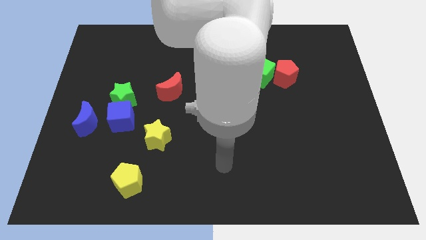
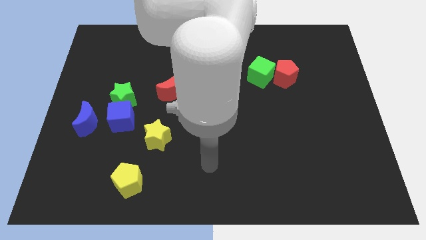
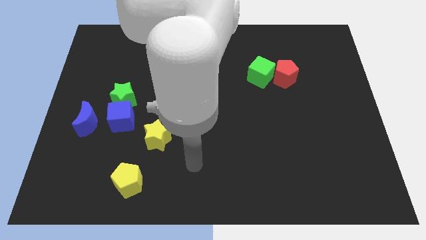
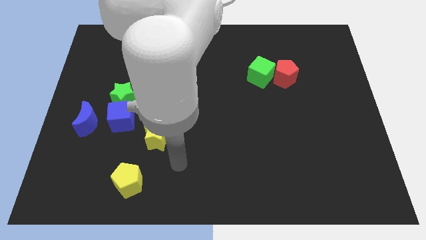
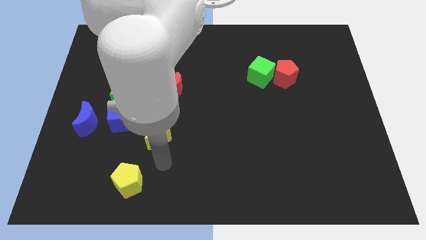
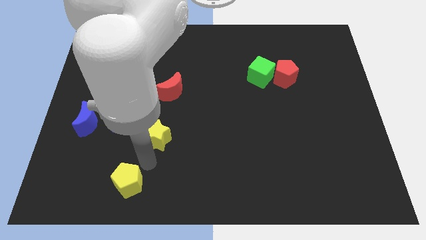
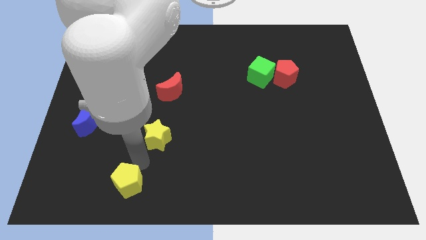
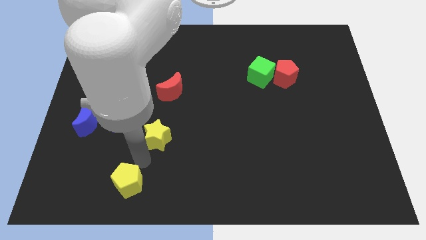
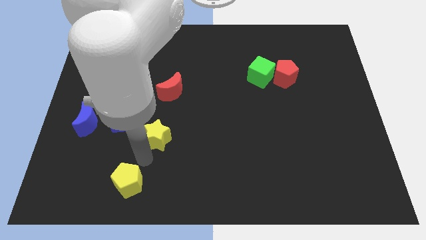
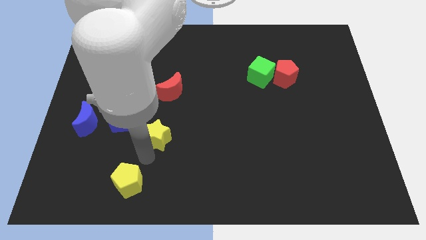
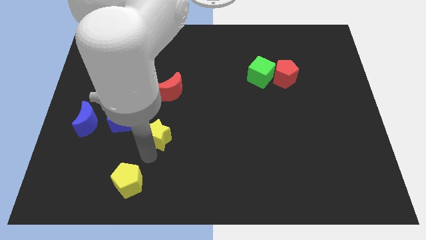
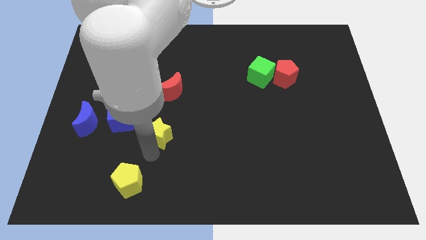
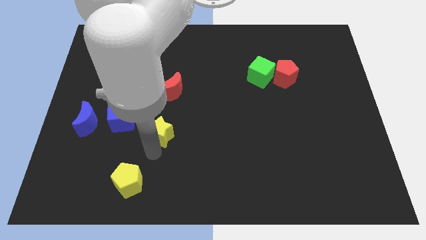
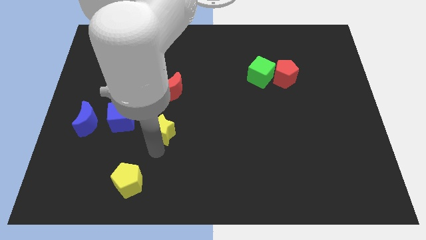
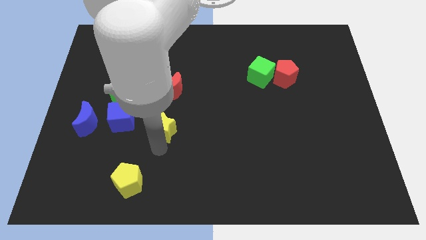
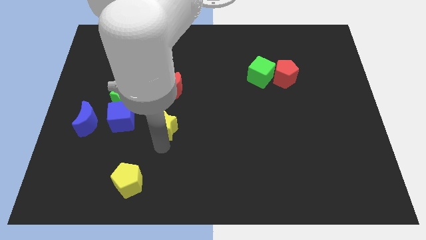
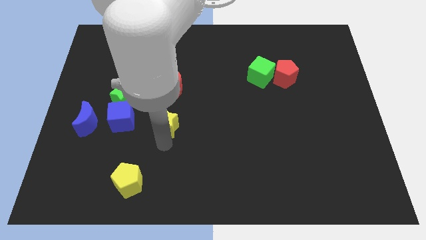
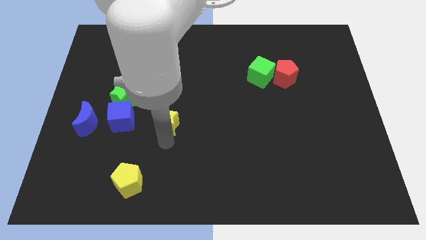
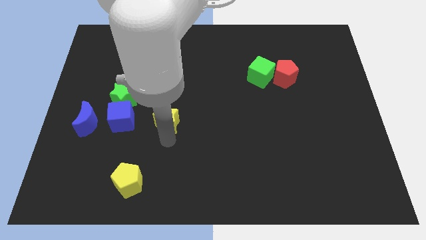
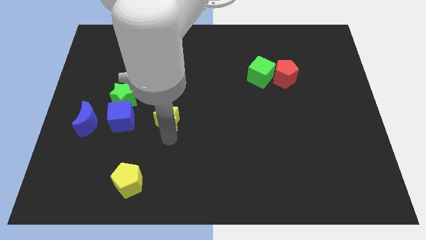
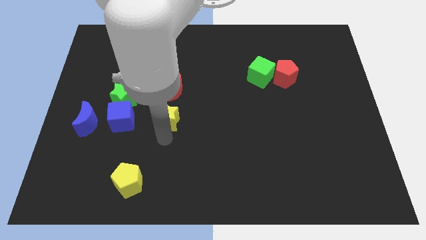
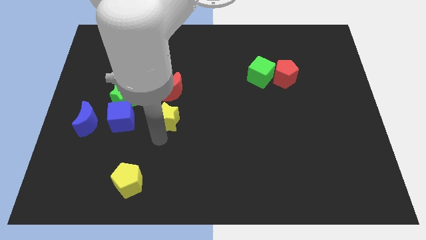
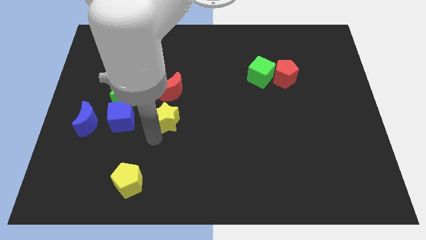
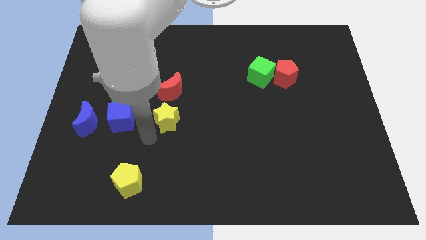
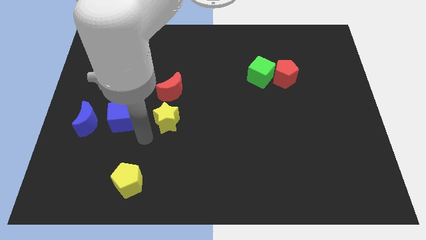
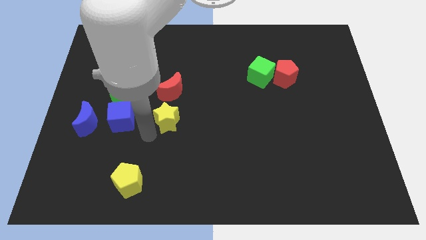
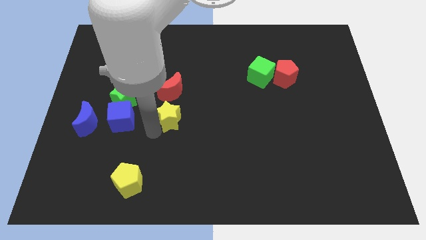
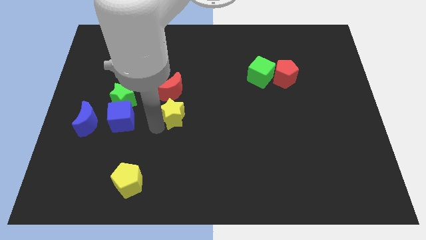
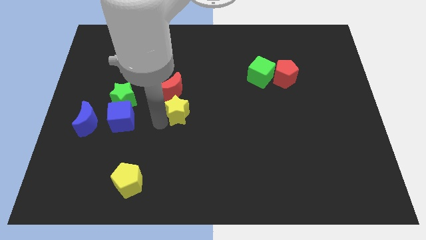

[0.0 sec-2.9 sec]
slide the yellow star a little bit upwards and right

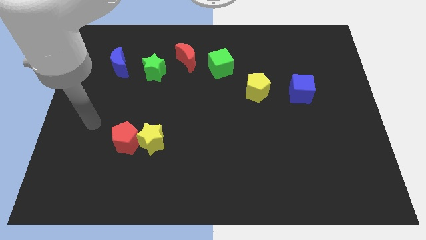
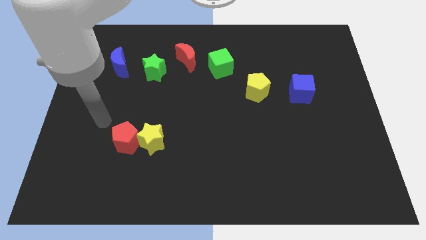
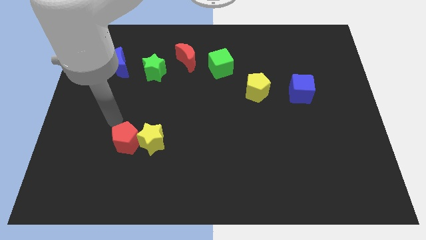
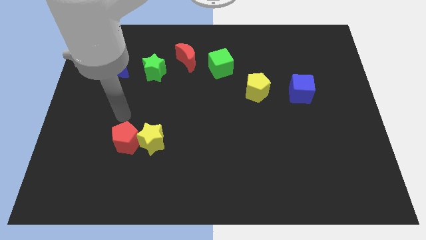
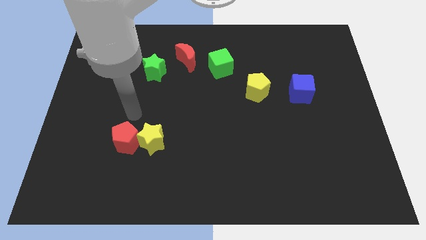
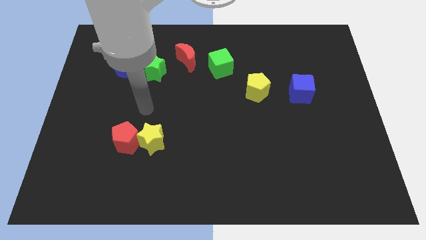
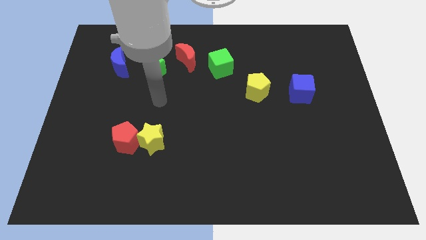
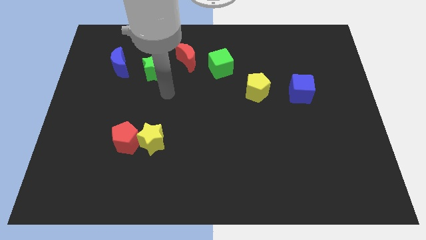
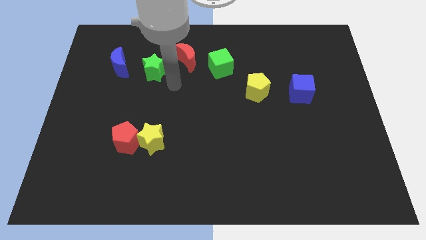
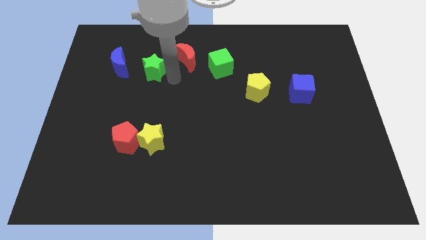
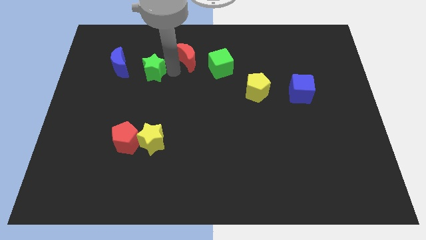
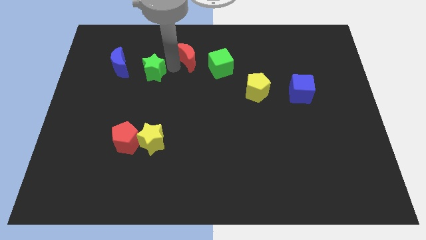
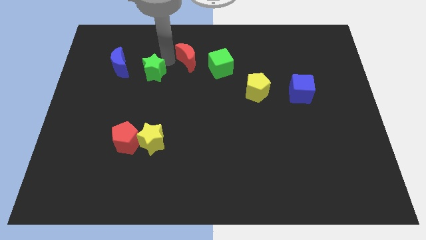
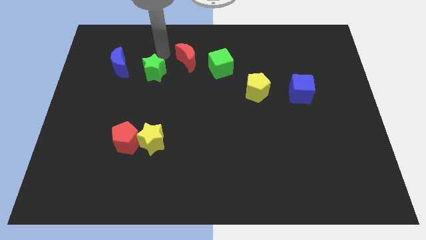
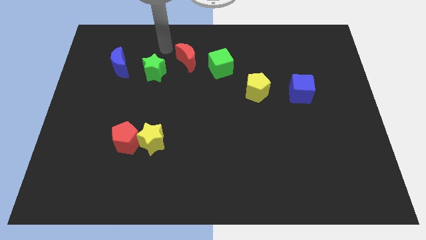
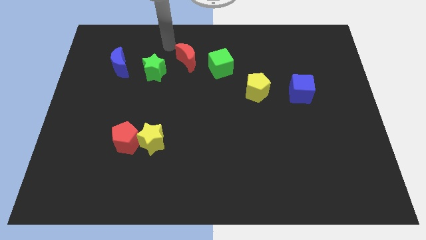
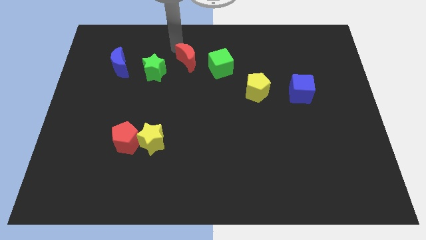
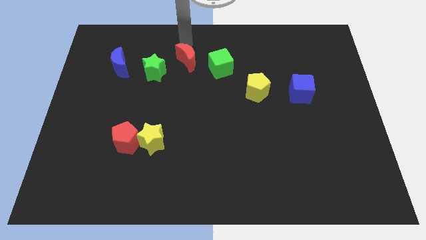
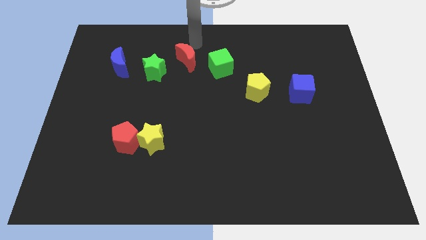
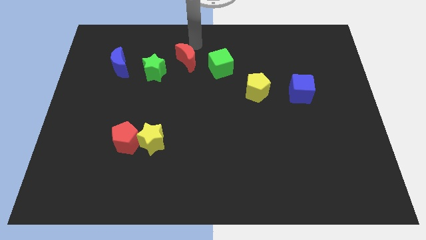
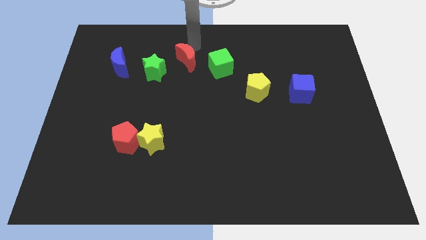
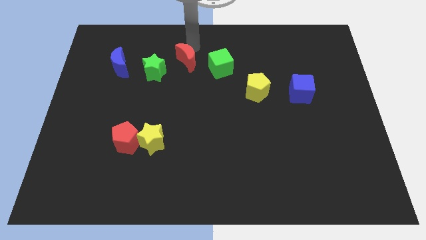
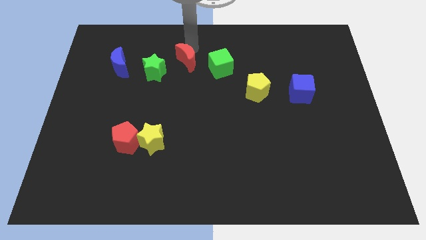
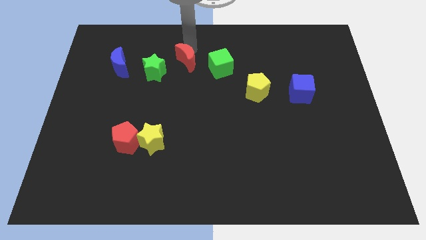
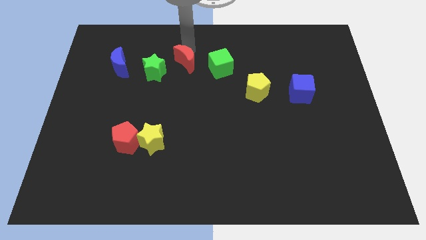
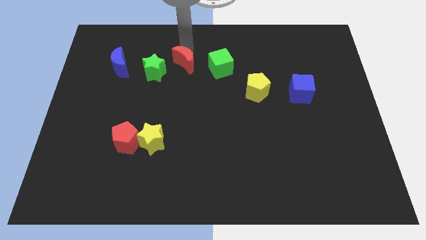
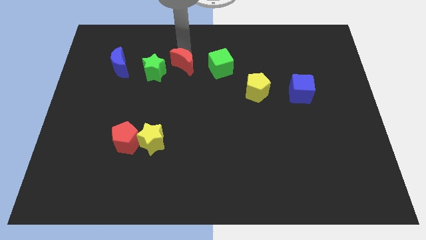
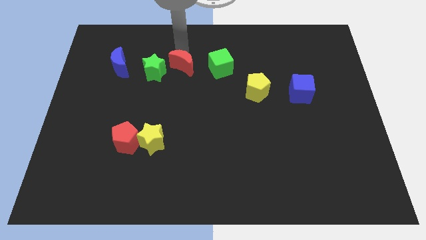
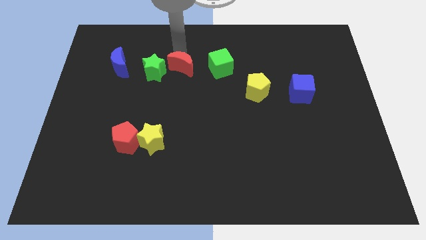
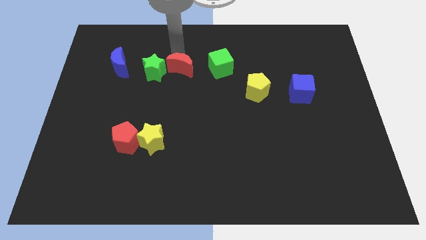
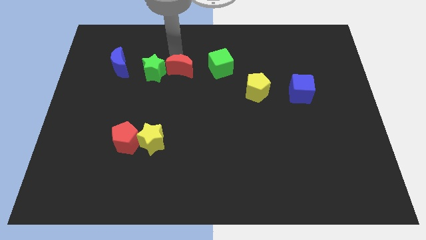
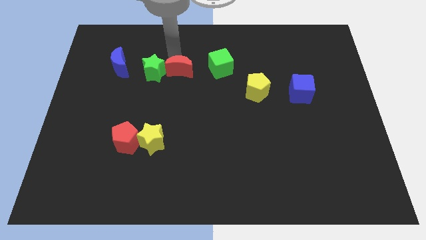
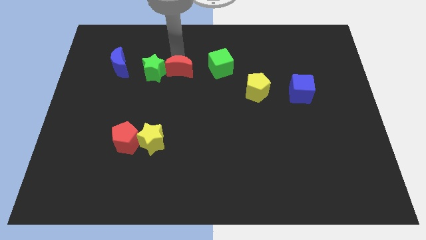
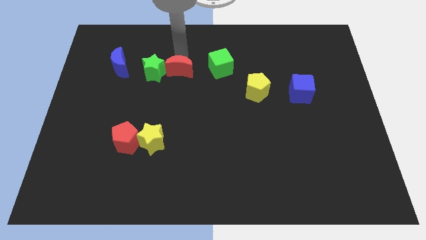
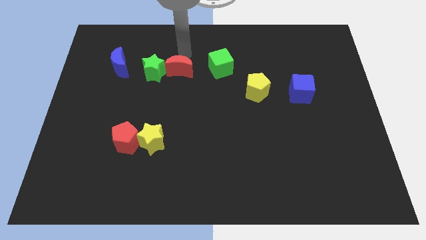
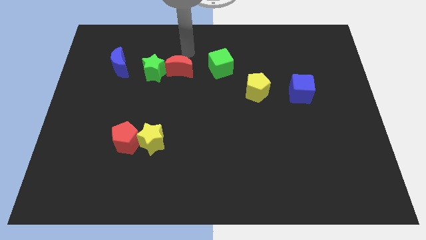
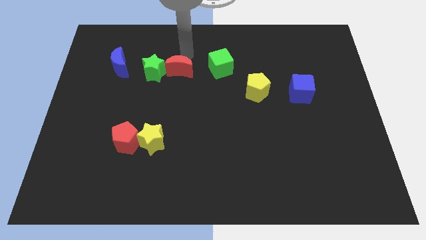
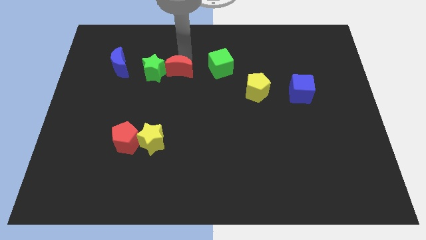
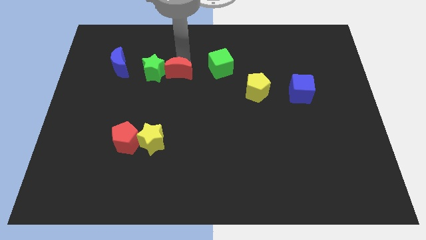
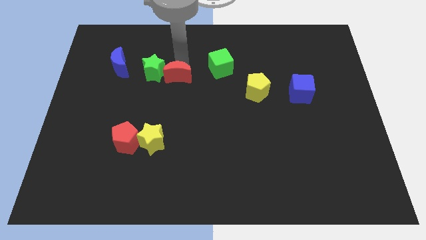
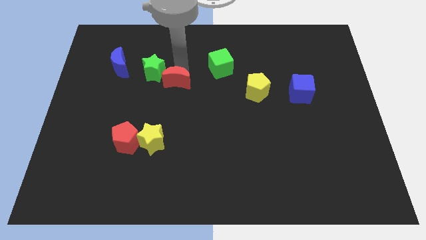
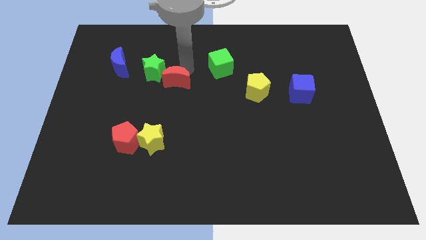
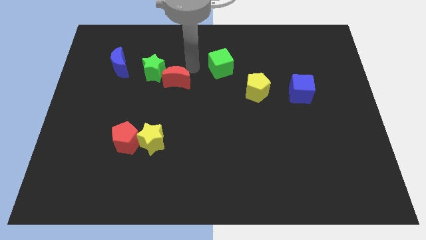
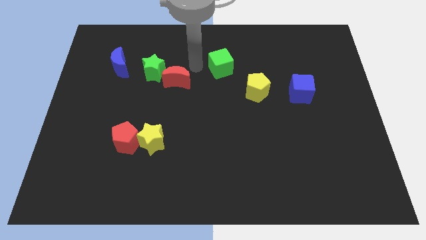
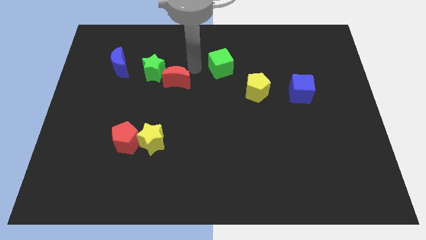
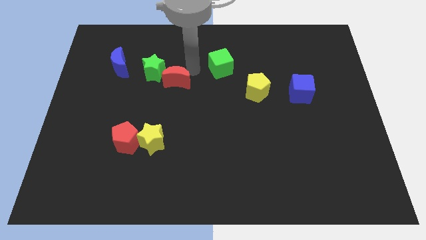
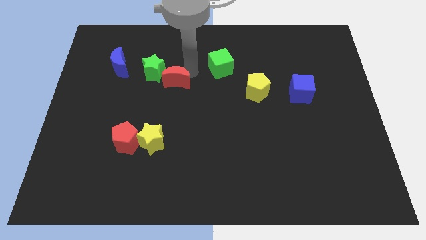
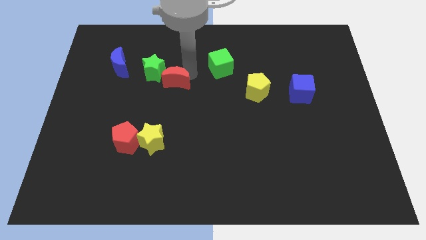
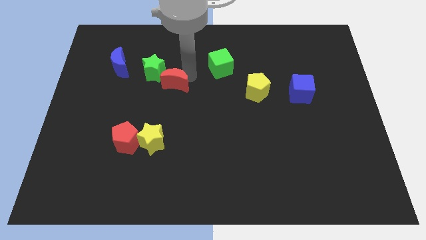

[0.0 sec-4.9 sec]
slide the red moon diagonally downwards and left a little
